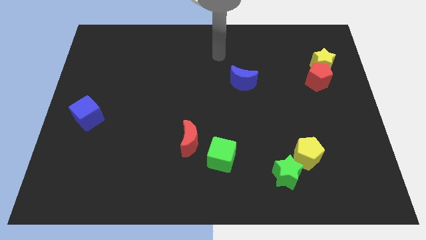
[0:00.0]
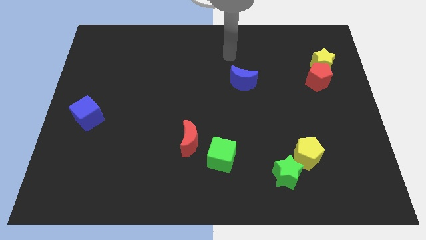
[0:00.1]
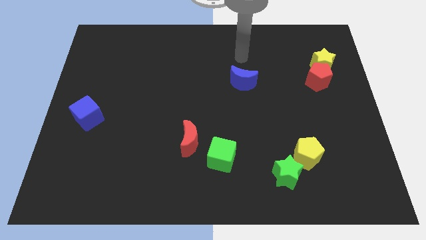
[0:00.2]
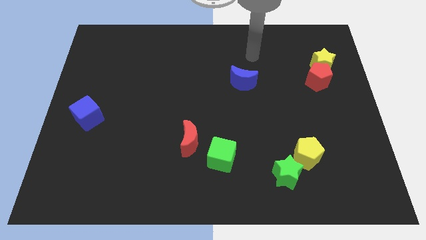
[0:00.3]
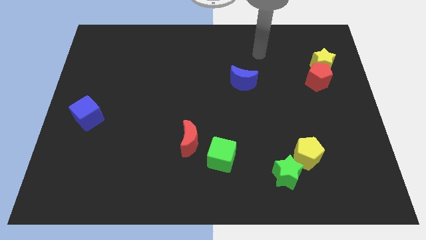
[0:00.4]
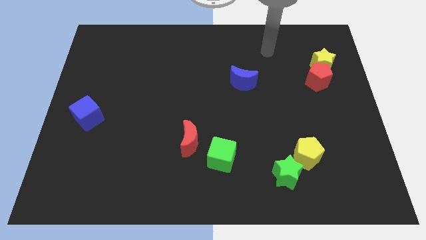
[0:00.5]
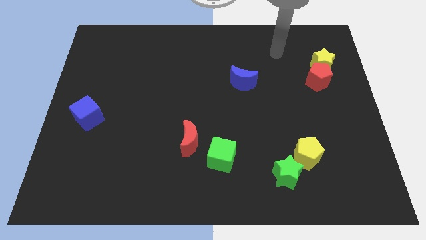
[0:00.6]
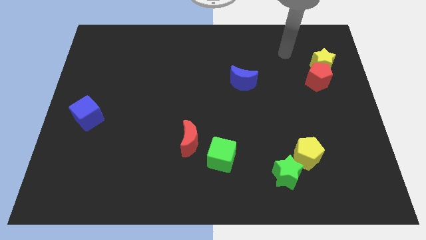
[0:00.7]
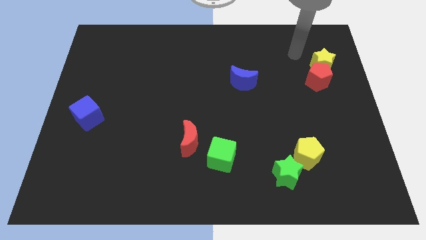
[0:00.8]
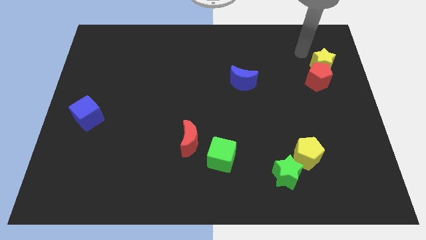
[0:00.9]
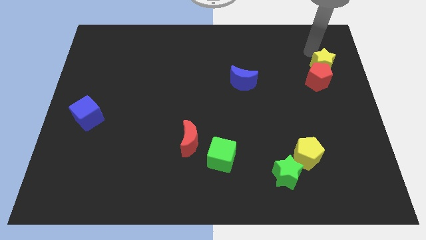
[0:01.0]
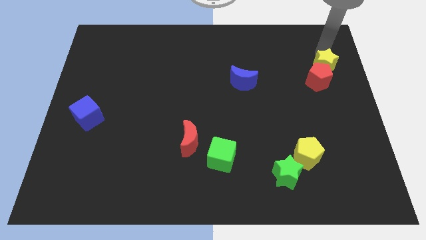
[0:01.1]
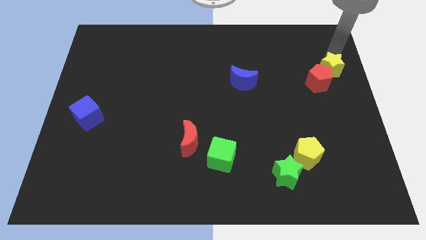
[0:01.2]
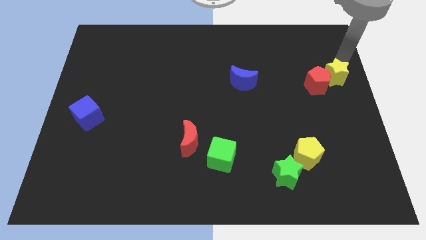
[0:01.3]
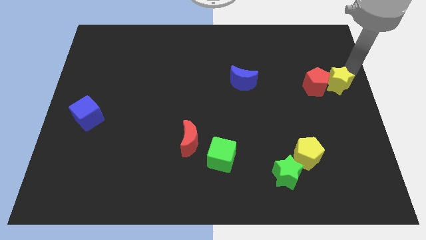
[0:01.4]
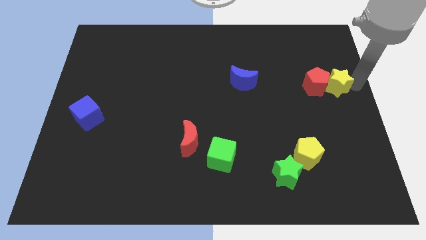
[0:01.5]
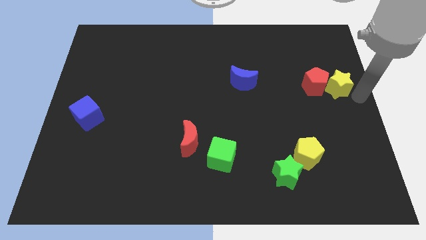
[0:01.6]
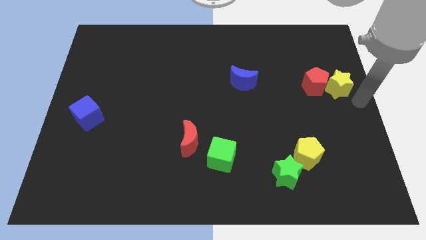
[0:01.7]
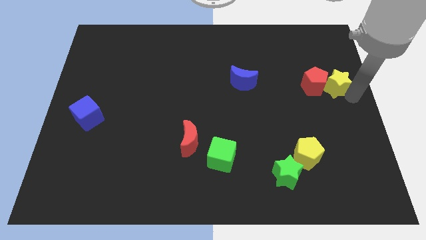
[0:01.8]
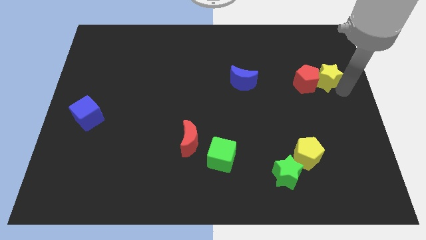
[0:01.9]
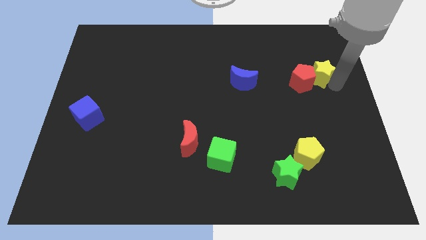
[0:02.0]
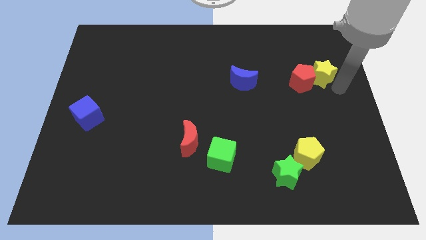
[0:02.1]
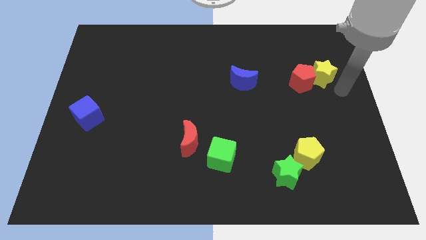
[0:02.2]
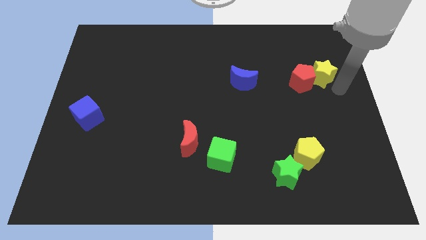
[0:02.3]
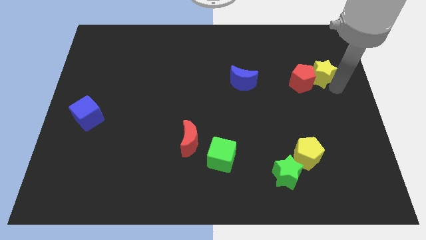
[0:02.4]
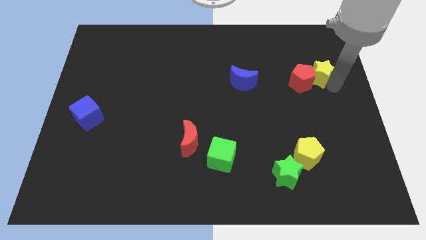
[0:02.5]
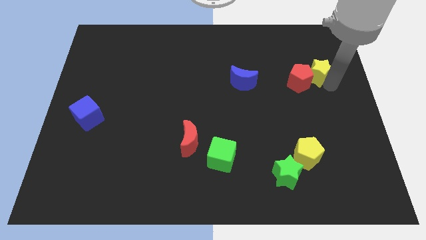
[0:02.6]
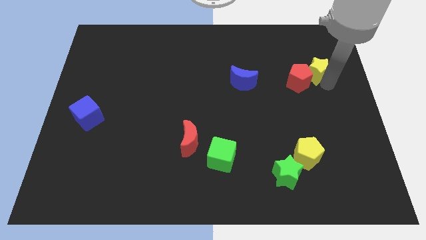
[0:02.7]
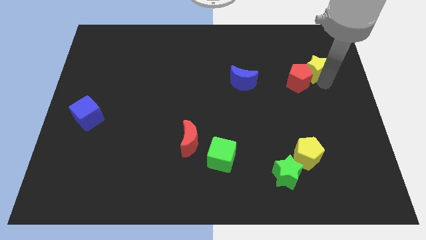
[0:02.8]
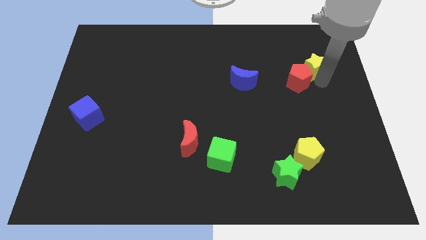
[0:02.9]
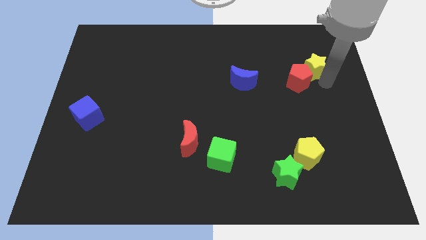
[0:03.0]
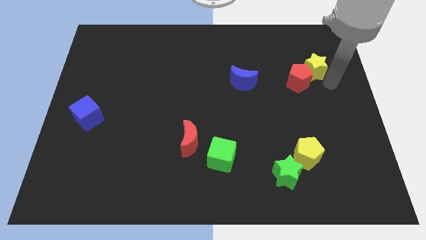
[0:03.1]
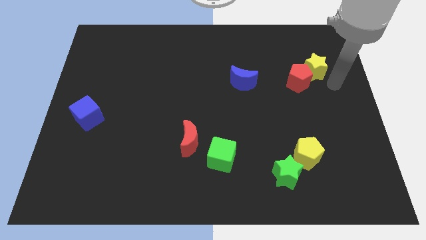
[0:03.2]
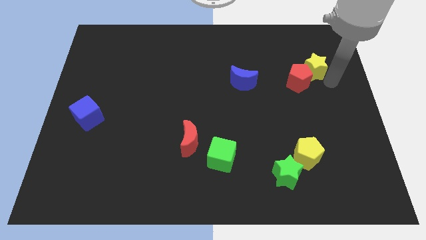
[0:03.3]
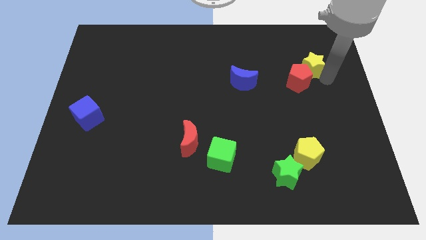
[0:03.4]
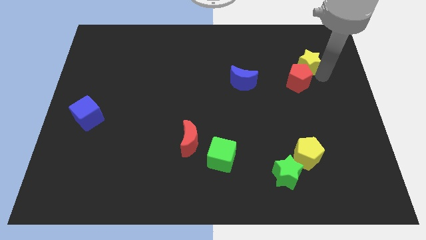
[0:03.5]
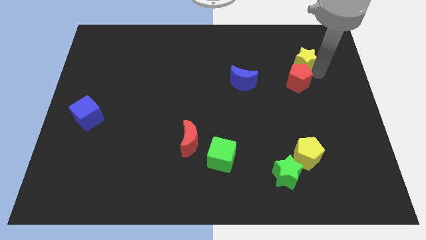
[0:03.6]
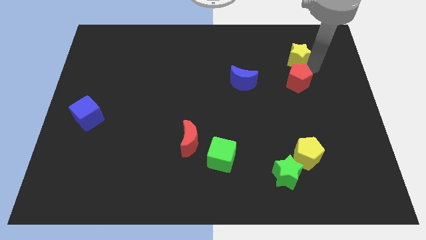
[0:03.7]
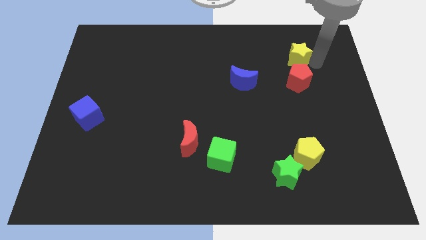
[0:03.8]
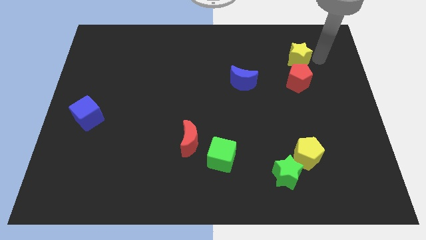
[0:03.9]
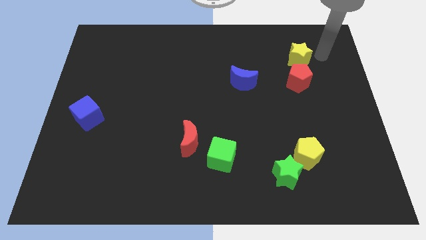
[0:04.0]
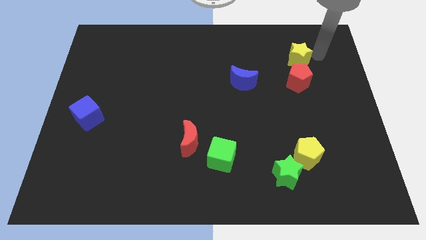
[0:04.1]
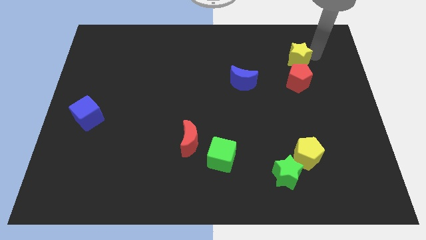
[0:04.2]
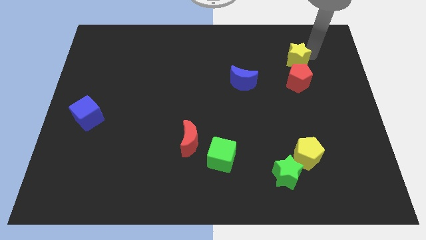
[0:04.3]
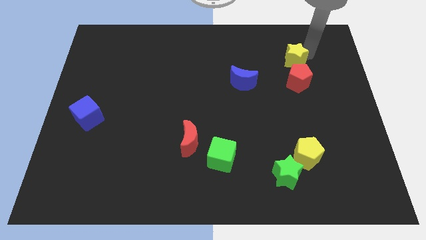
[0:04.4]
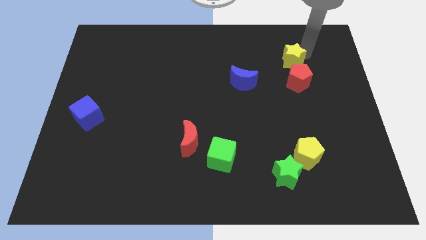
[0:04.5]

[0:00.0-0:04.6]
slightly slide the yellow star left

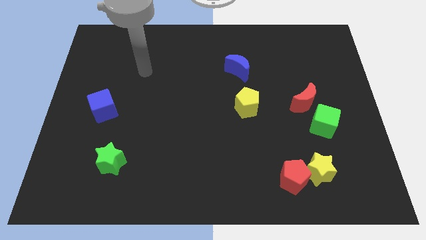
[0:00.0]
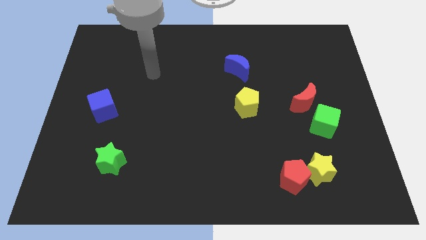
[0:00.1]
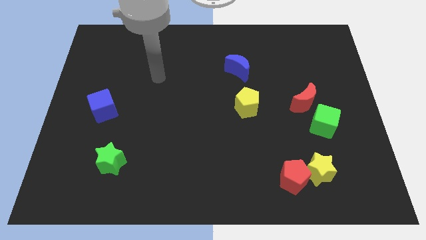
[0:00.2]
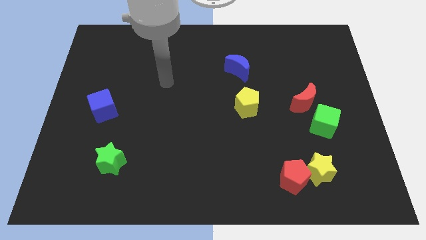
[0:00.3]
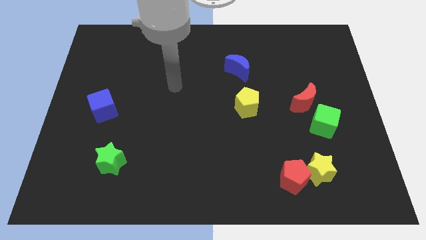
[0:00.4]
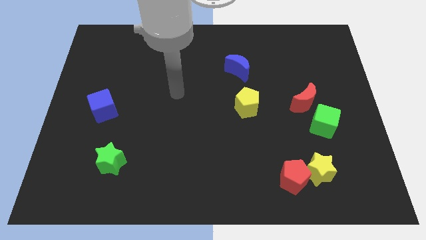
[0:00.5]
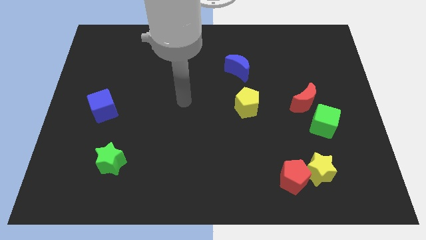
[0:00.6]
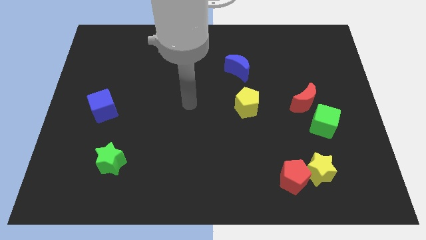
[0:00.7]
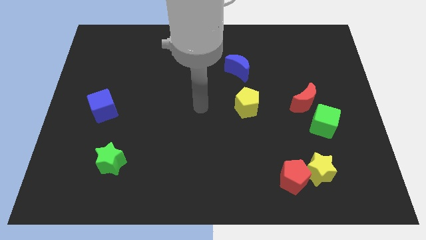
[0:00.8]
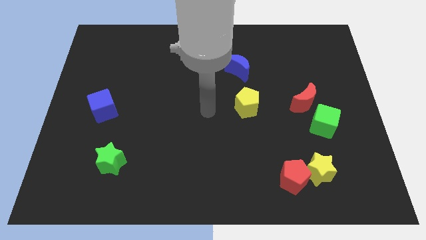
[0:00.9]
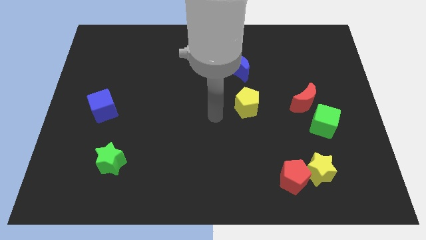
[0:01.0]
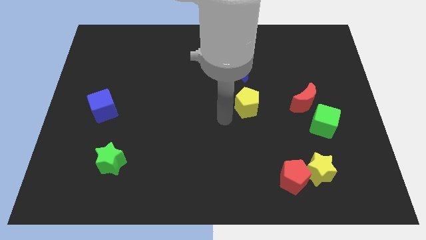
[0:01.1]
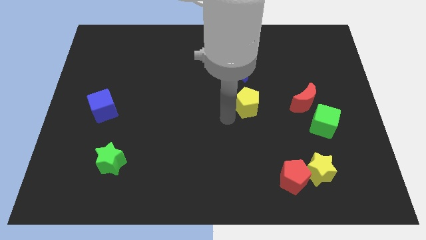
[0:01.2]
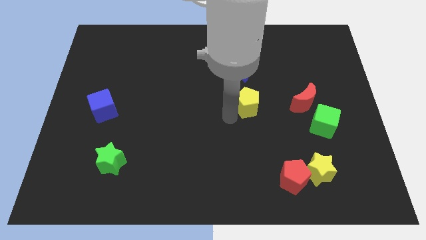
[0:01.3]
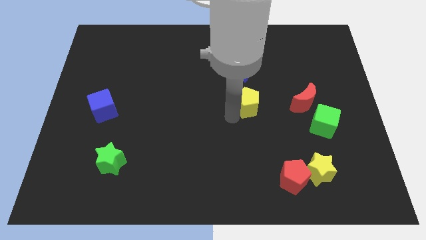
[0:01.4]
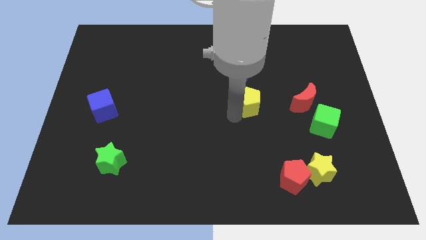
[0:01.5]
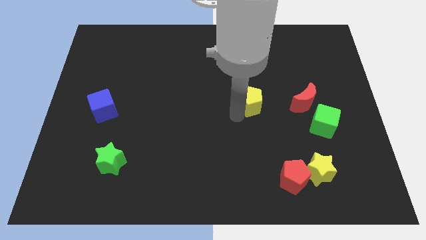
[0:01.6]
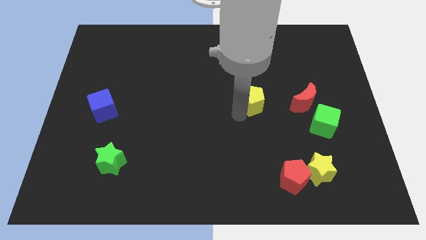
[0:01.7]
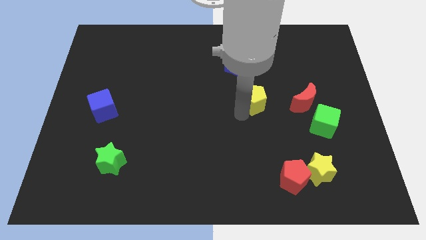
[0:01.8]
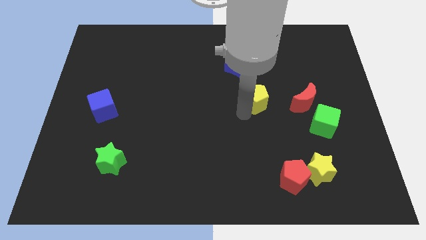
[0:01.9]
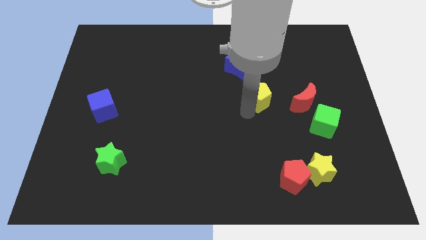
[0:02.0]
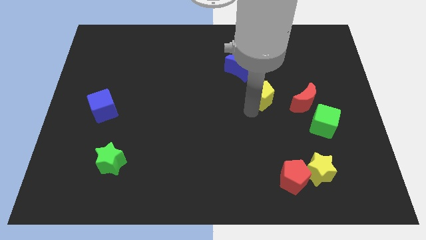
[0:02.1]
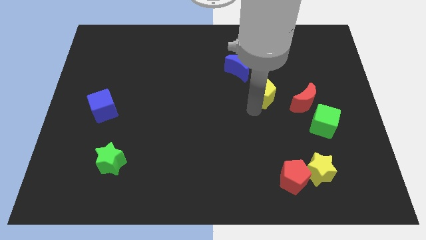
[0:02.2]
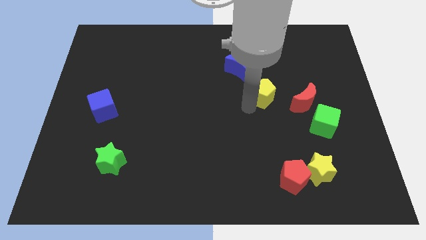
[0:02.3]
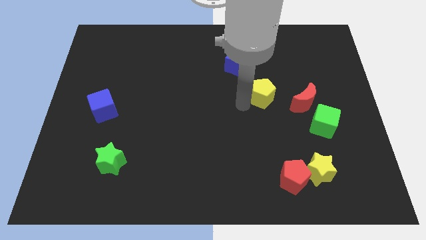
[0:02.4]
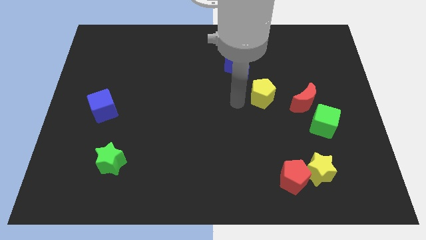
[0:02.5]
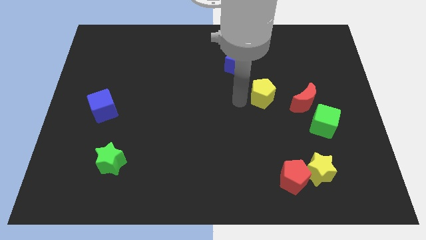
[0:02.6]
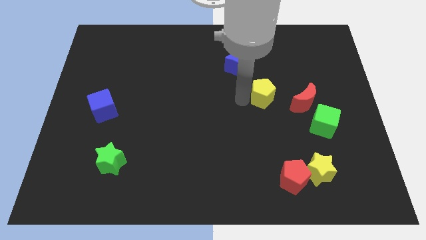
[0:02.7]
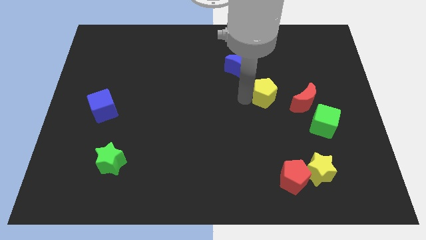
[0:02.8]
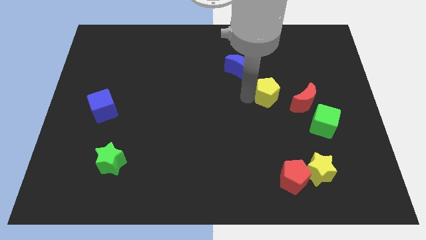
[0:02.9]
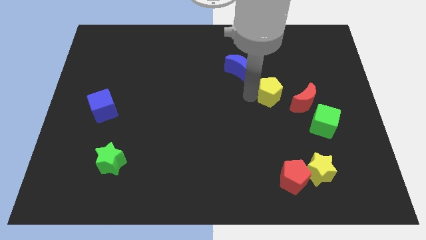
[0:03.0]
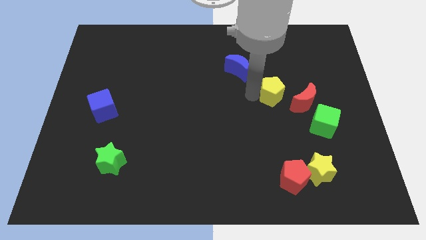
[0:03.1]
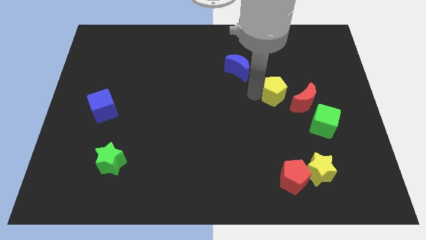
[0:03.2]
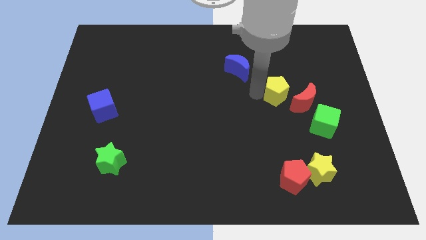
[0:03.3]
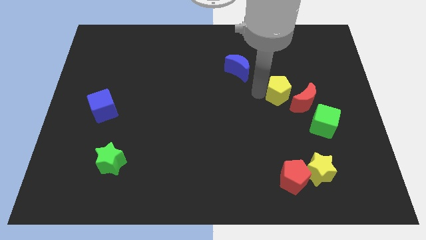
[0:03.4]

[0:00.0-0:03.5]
slide the yellow pentagon to the right a little

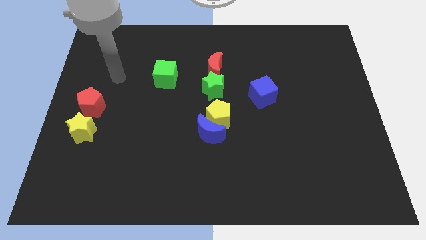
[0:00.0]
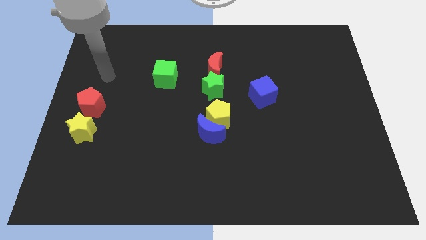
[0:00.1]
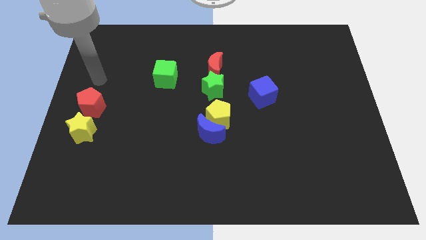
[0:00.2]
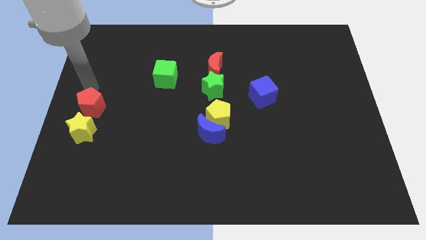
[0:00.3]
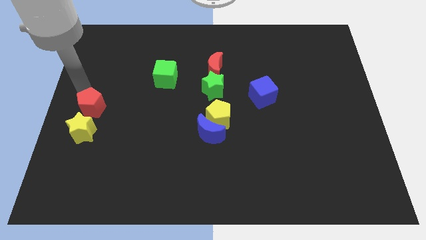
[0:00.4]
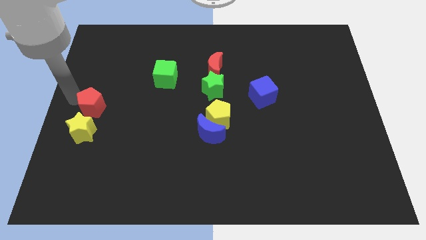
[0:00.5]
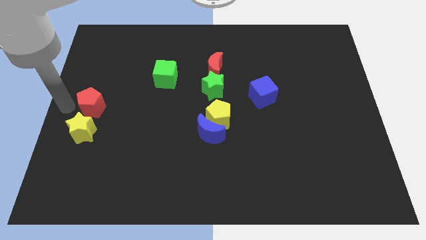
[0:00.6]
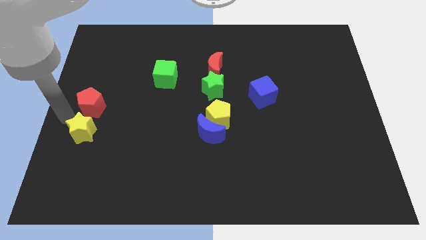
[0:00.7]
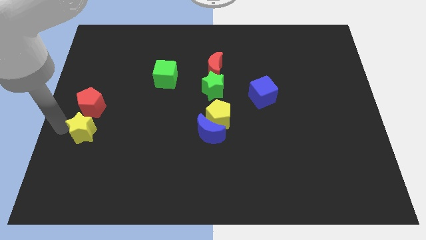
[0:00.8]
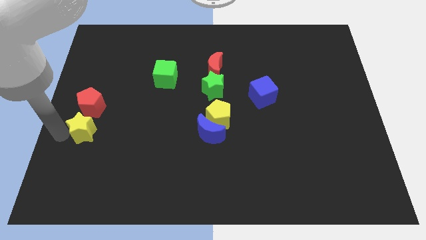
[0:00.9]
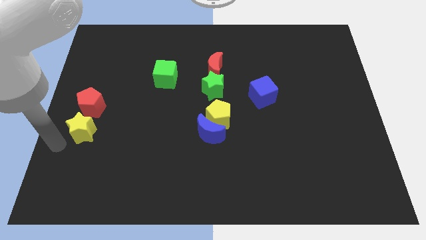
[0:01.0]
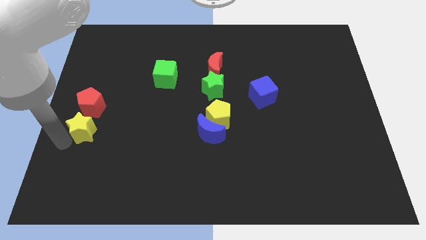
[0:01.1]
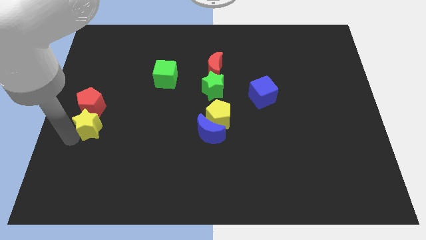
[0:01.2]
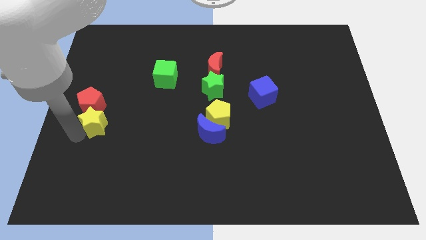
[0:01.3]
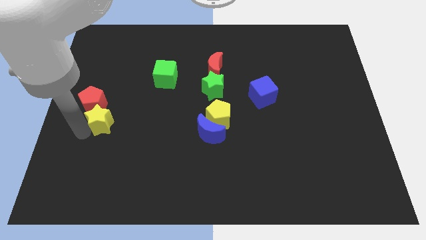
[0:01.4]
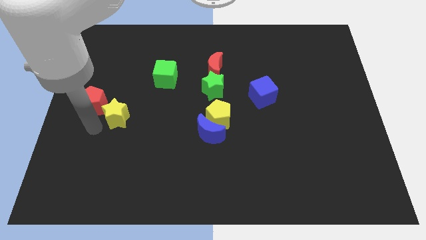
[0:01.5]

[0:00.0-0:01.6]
slightly slide the yellow star up and right diagonally
